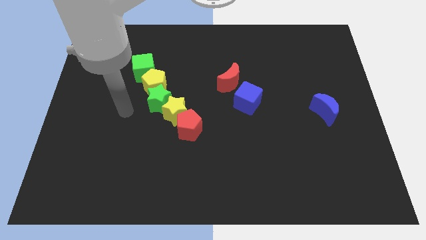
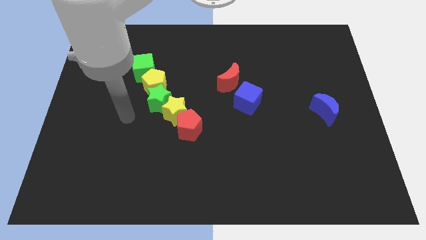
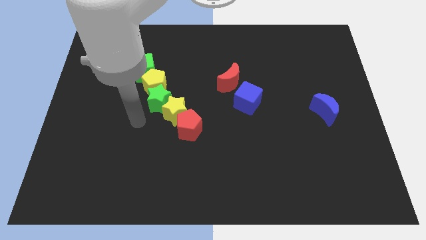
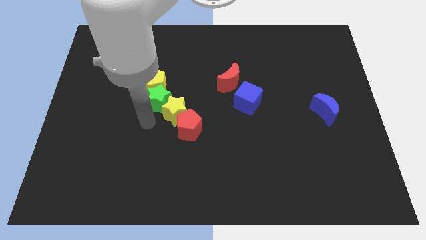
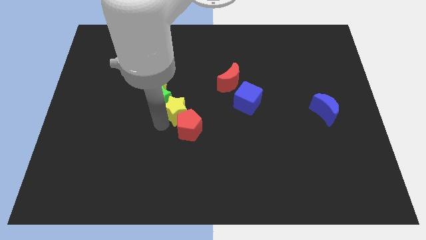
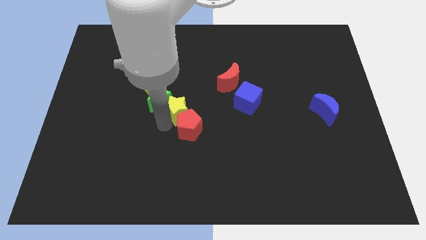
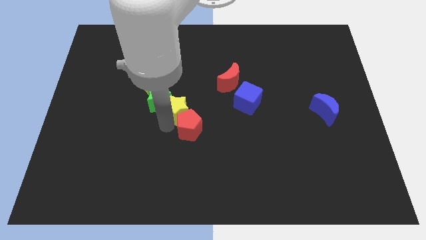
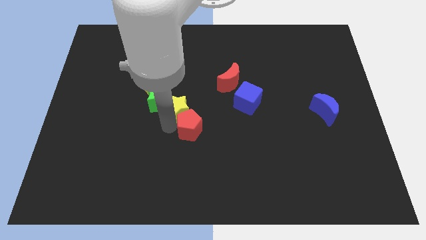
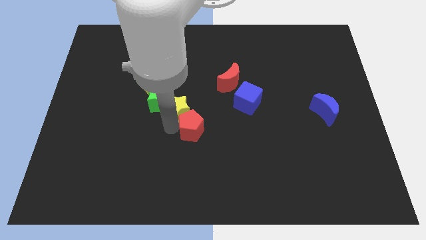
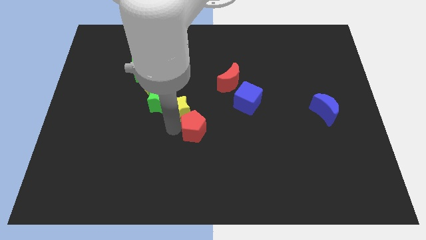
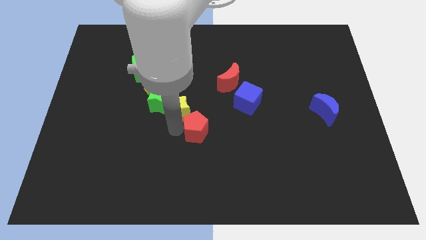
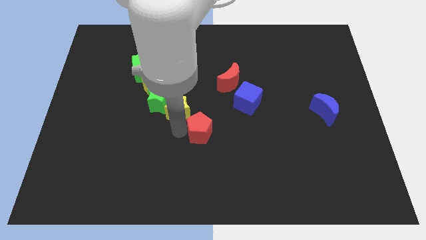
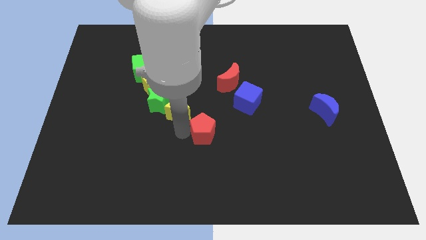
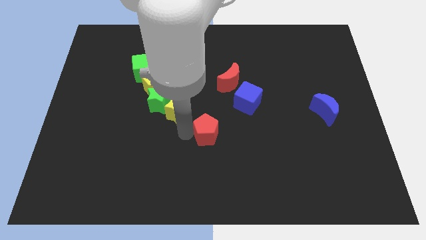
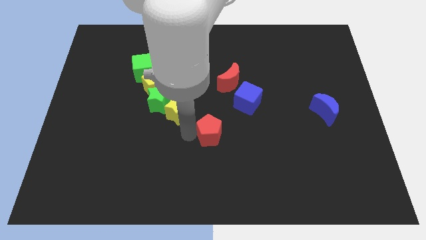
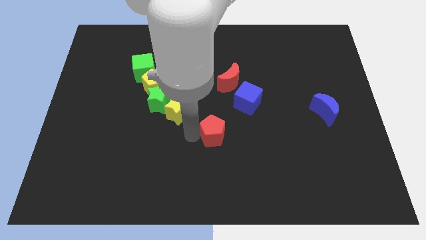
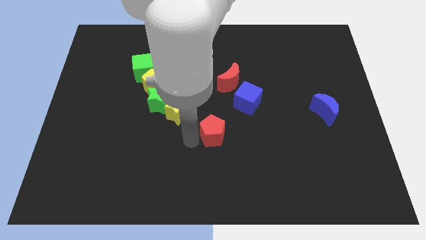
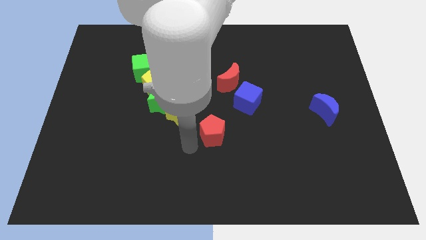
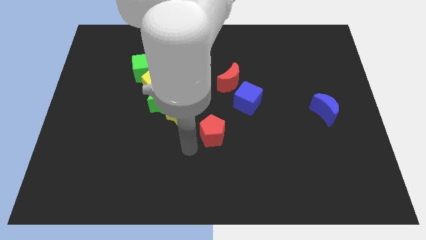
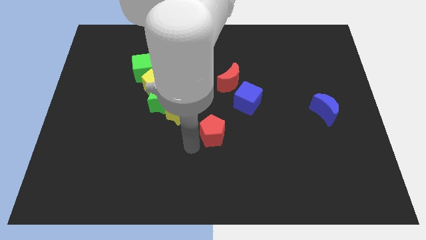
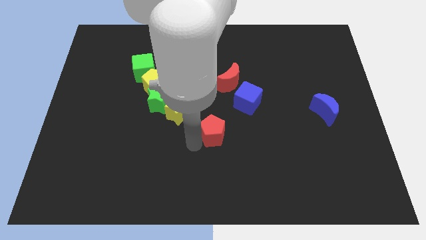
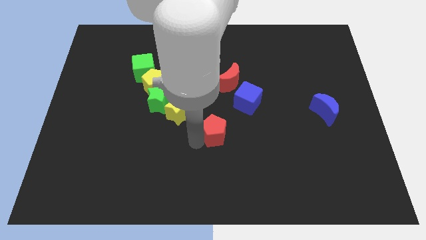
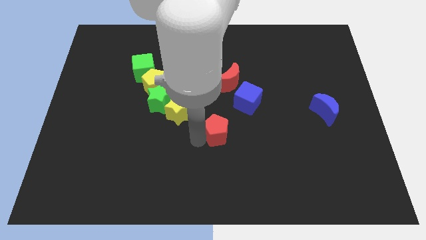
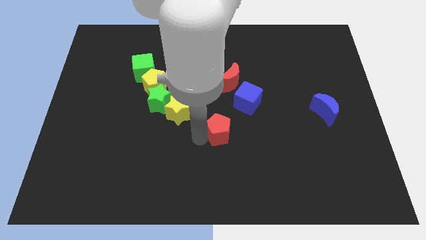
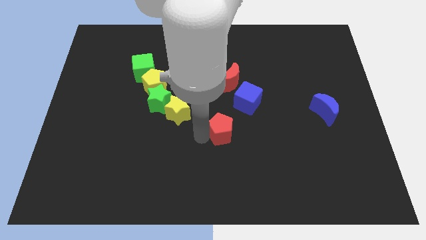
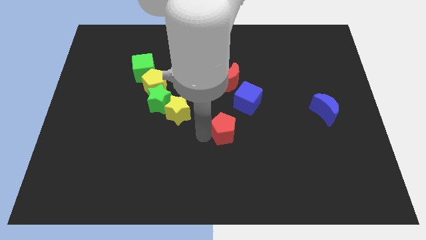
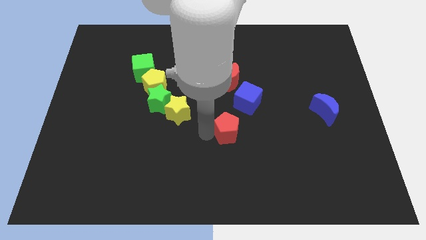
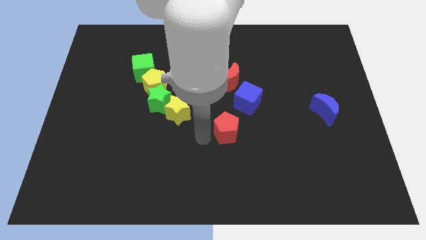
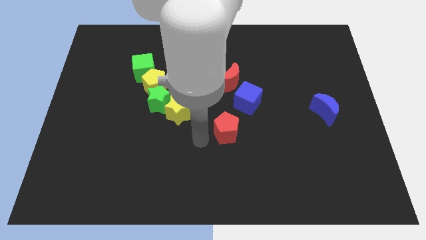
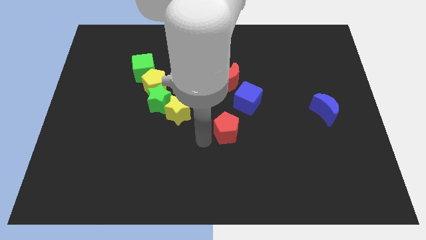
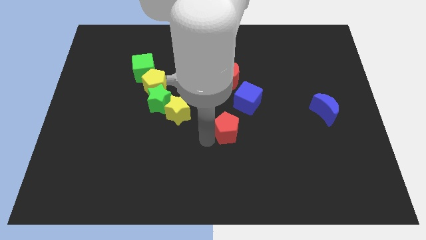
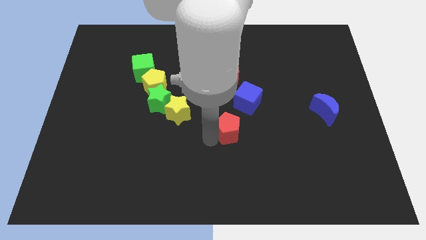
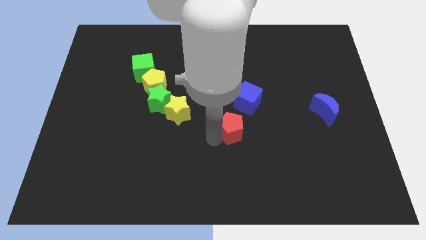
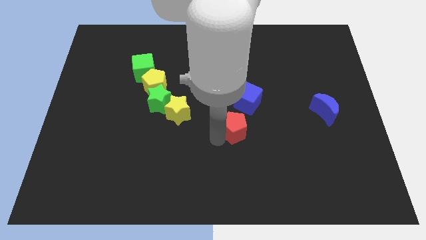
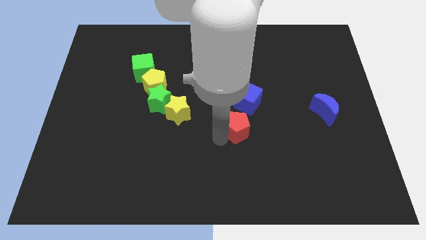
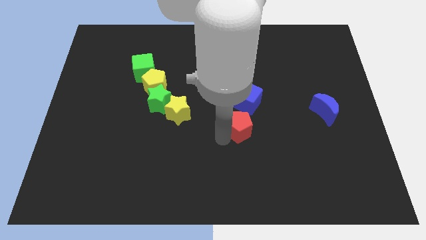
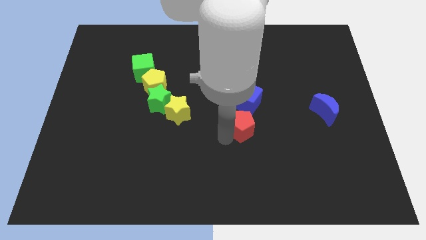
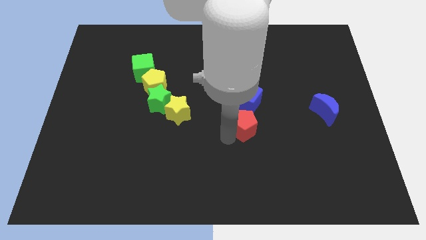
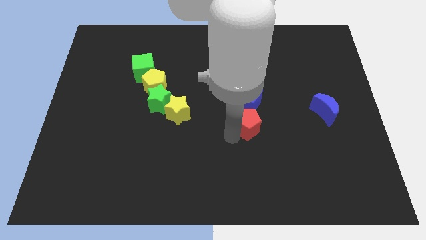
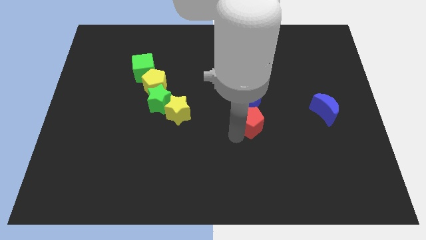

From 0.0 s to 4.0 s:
slightly slide the red pentagon upwards and then to the right

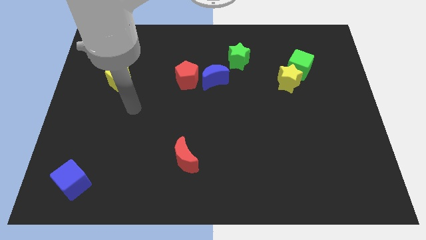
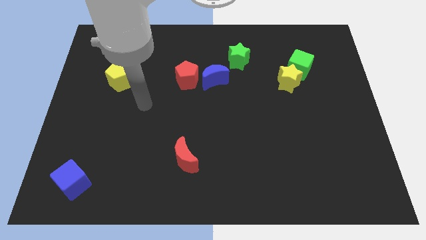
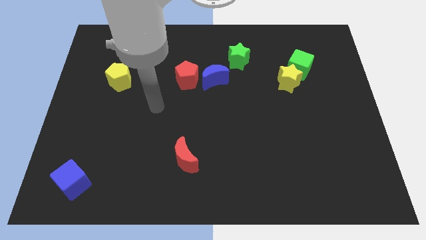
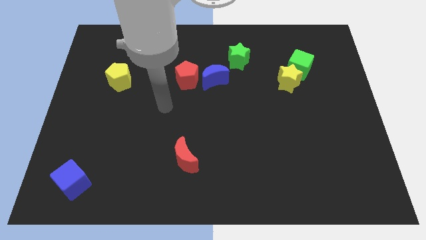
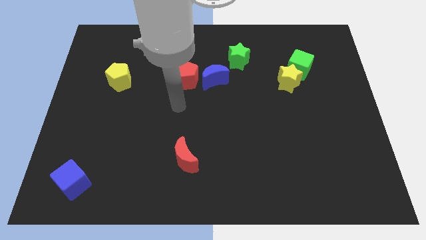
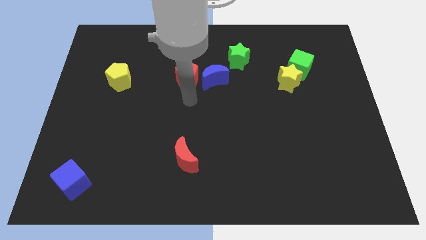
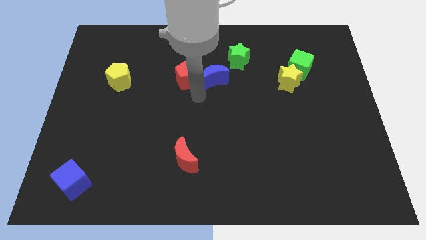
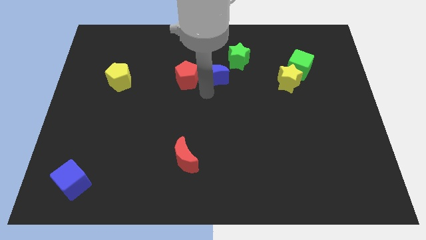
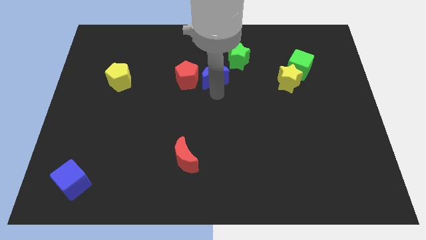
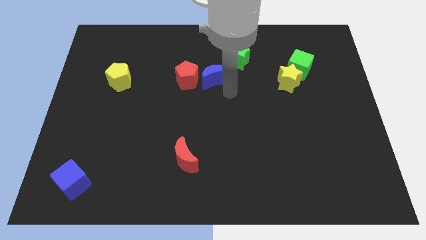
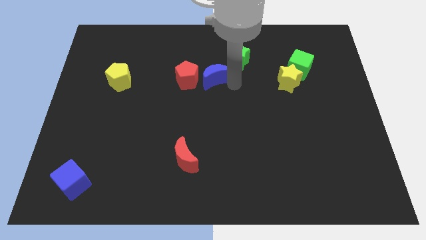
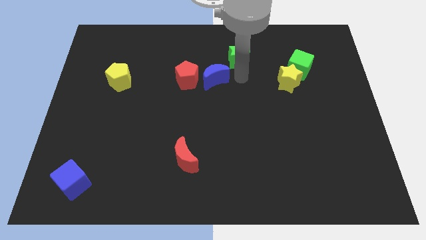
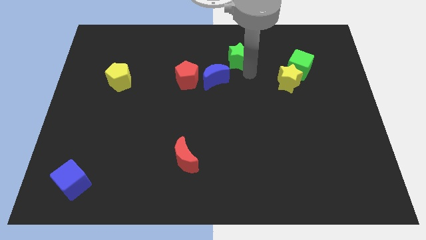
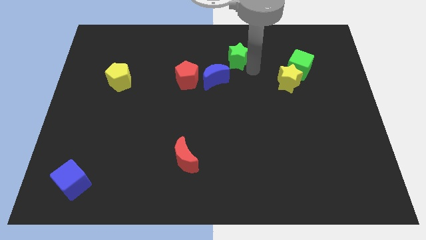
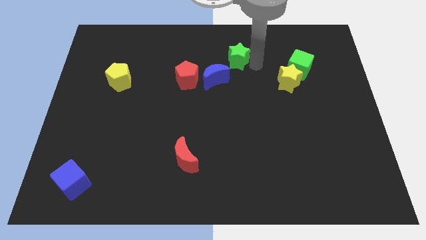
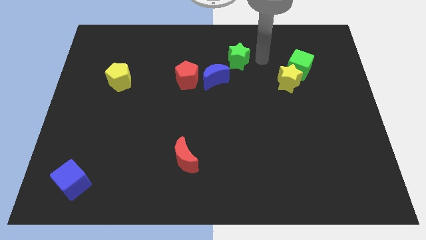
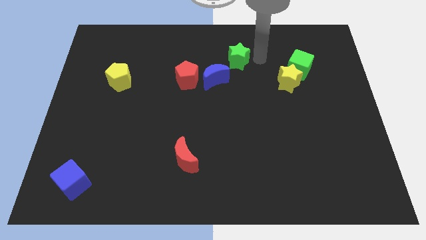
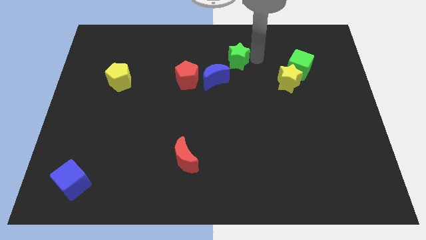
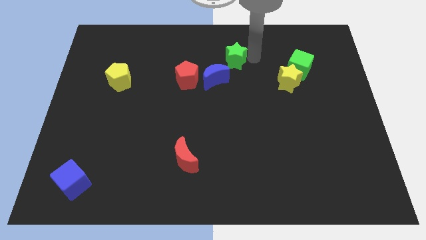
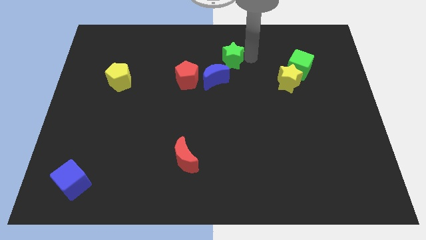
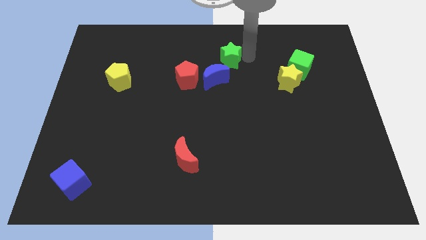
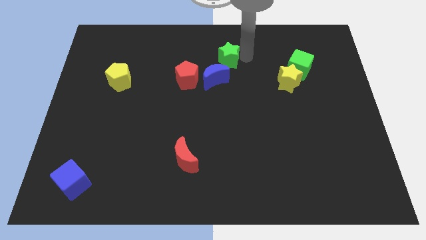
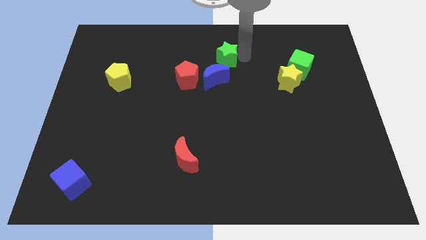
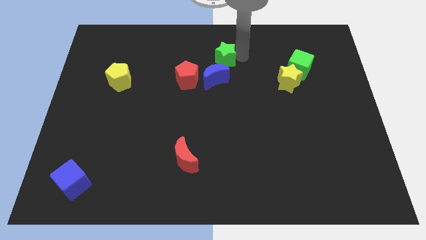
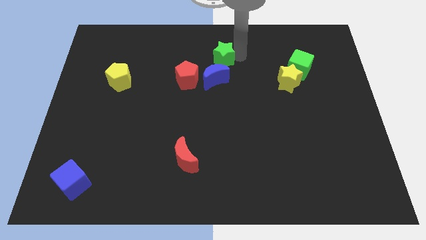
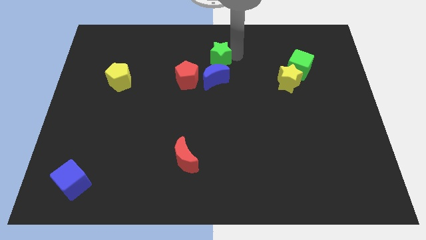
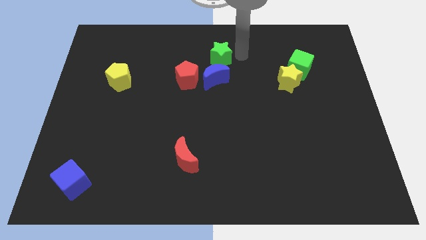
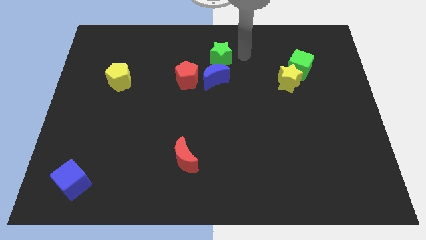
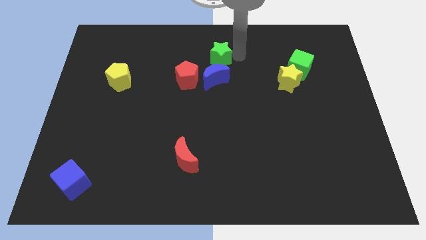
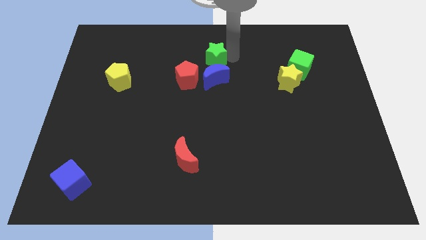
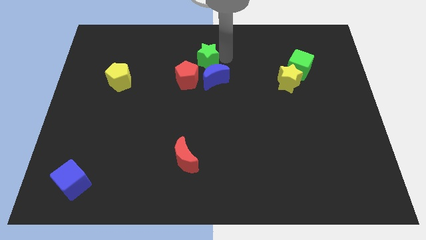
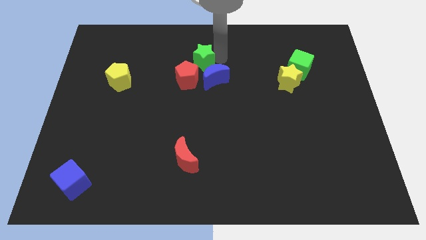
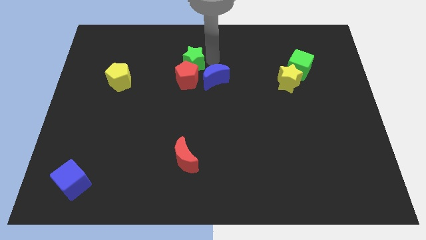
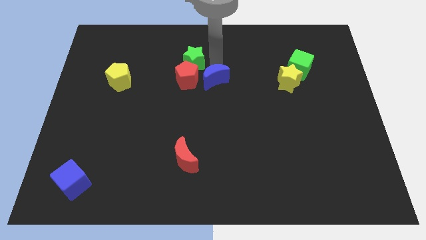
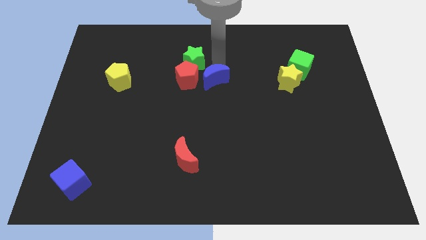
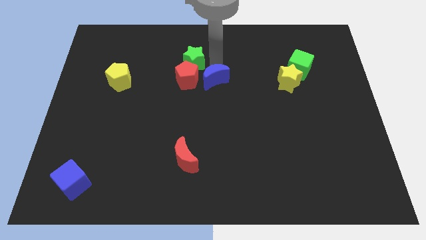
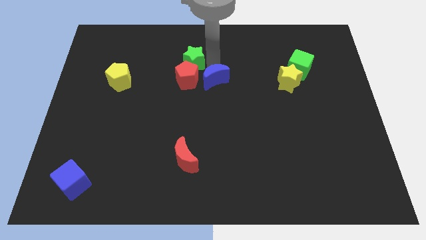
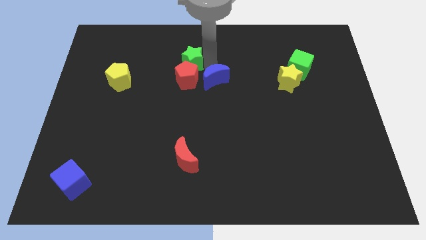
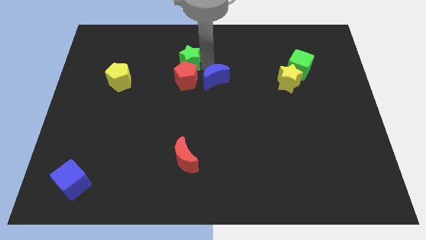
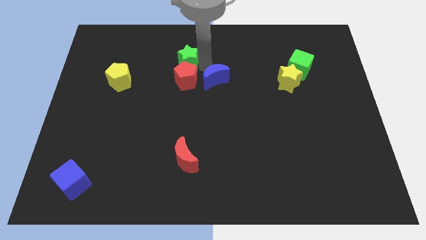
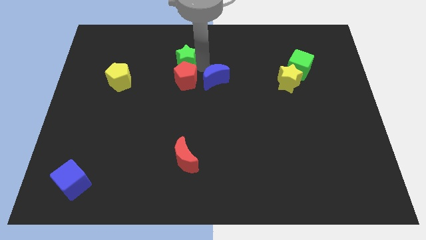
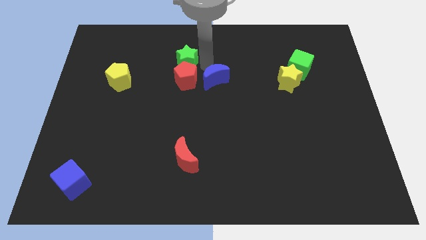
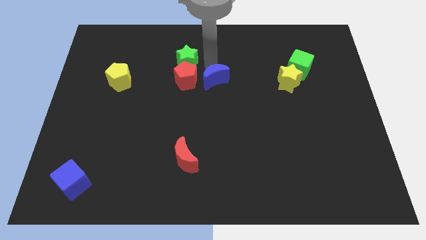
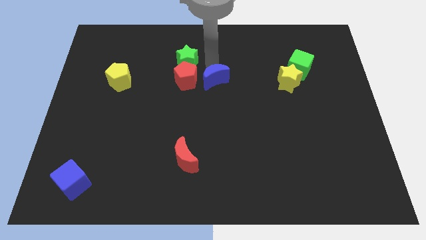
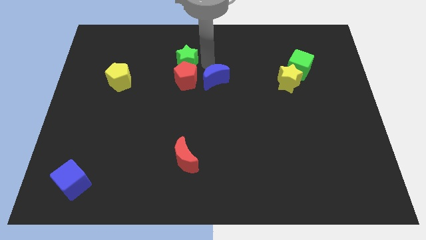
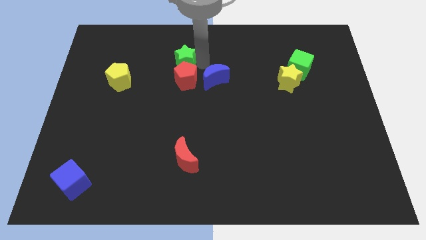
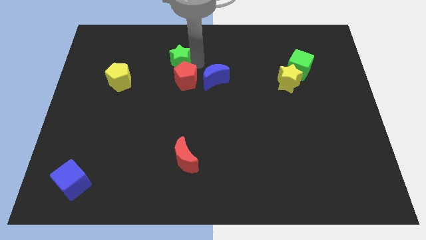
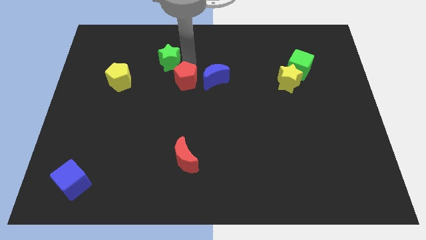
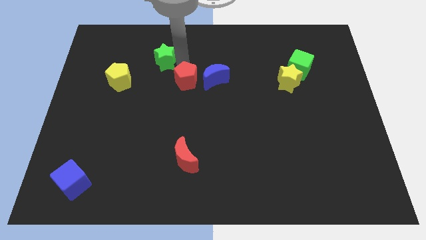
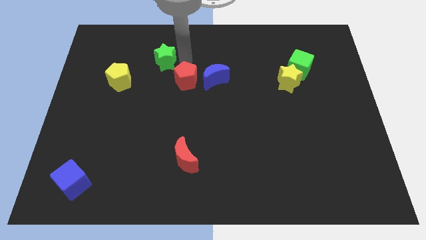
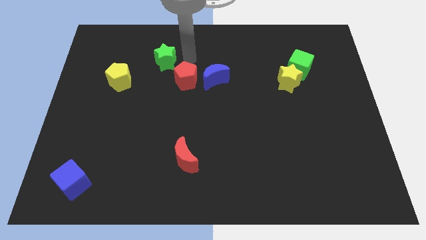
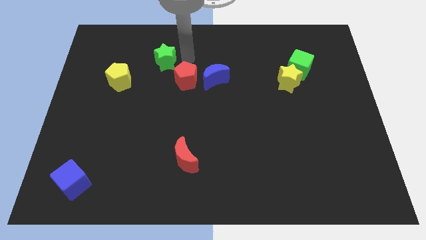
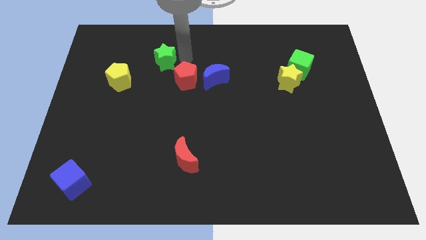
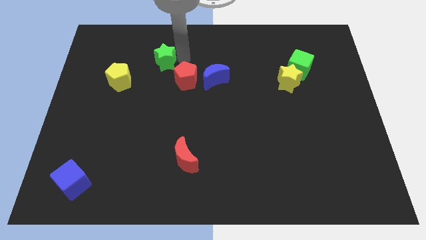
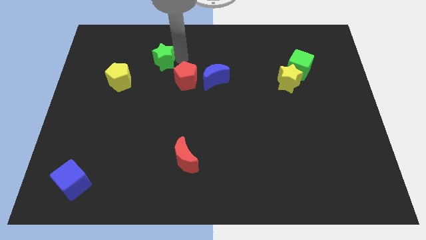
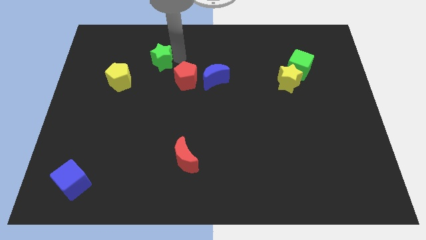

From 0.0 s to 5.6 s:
push the green star left
